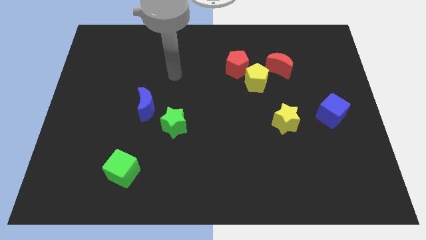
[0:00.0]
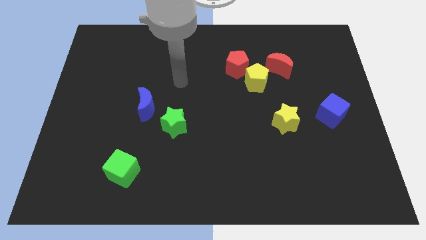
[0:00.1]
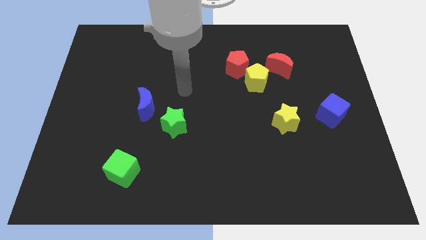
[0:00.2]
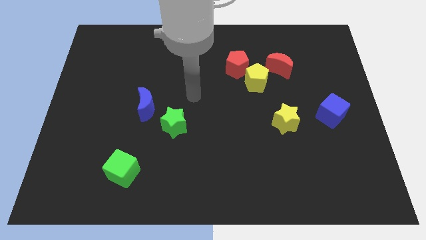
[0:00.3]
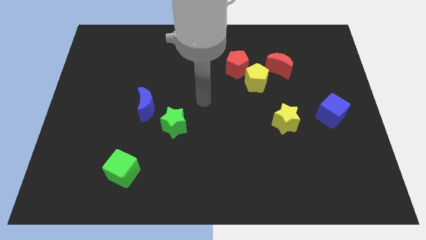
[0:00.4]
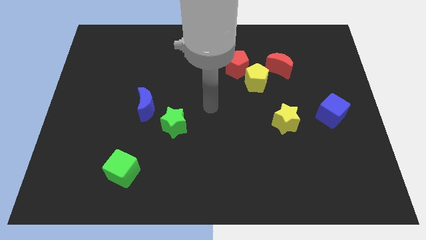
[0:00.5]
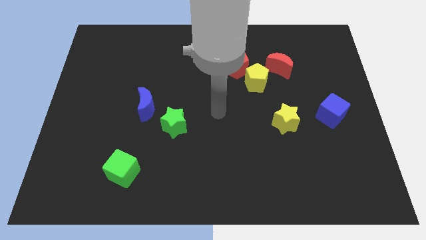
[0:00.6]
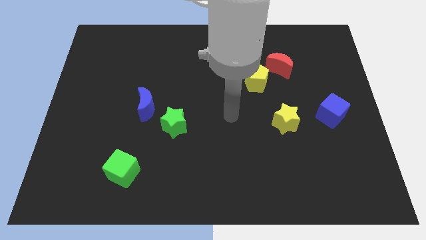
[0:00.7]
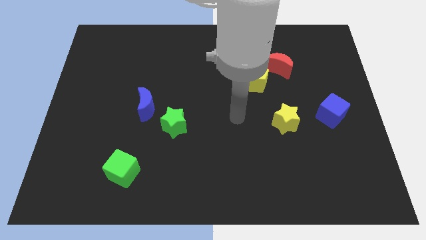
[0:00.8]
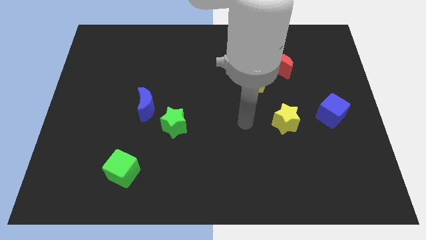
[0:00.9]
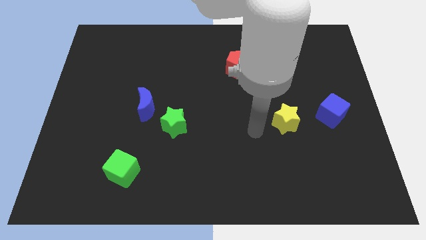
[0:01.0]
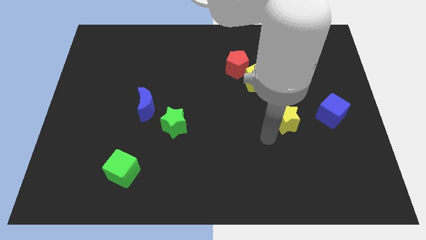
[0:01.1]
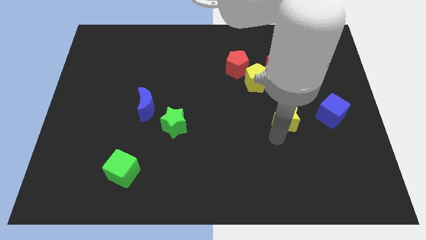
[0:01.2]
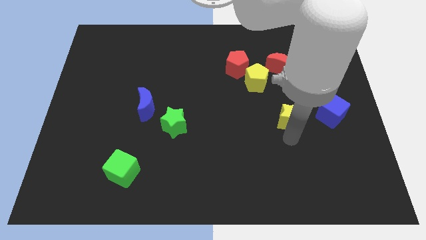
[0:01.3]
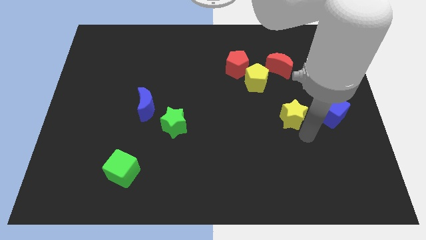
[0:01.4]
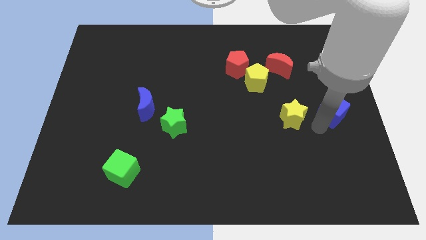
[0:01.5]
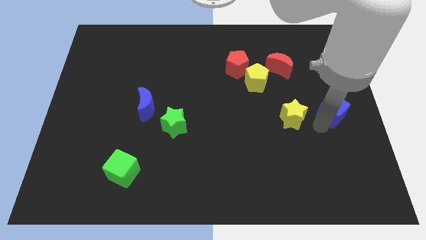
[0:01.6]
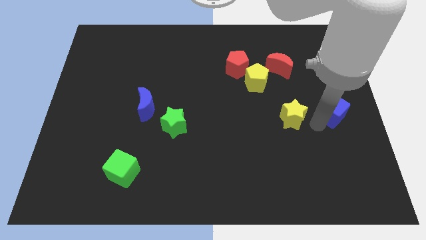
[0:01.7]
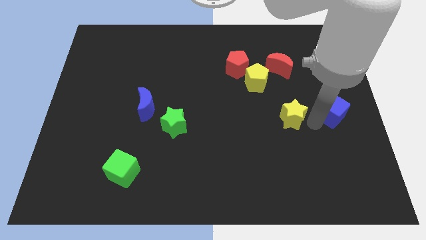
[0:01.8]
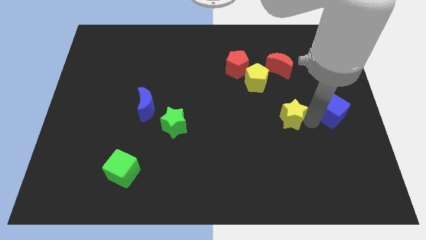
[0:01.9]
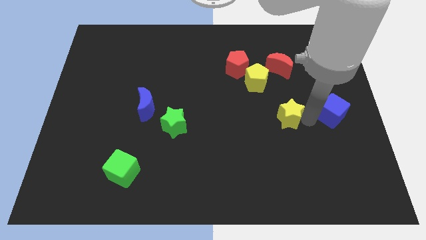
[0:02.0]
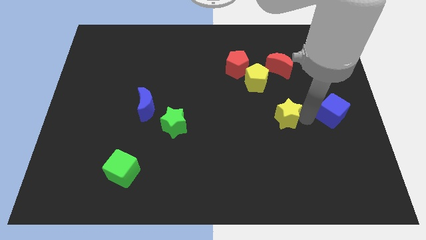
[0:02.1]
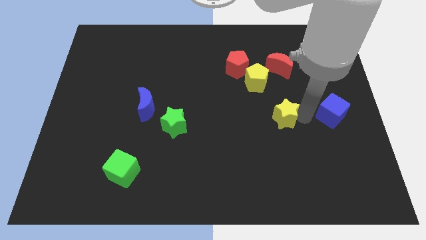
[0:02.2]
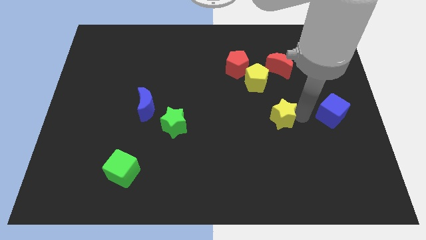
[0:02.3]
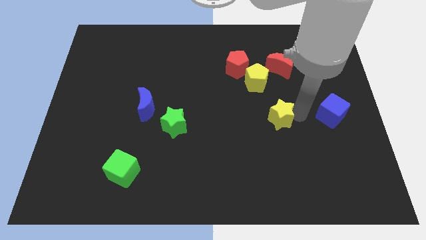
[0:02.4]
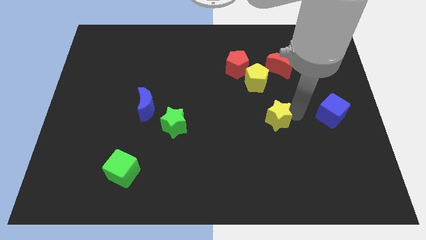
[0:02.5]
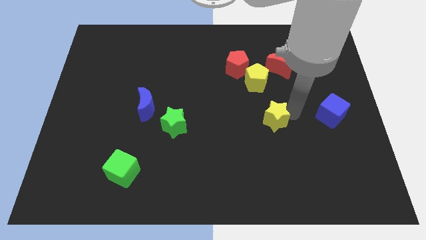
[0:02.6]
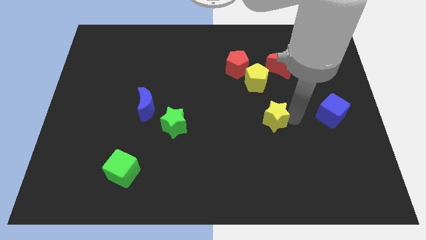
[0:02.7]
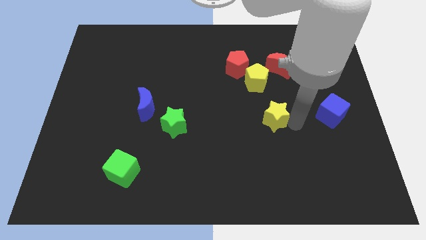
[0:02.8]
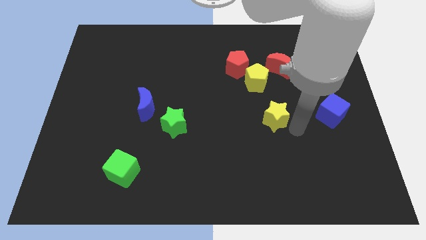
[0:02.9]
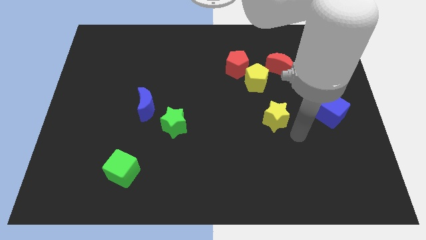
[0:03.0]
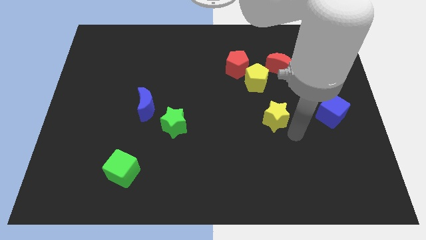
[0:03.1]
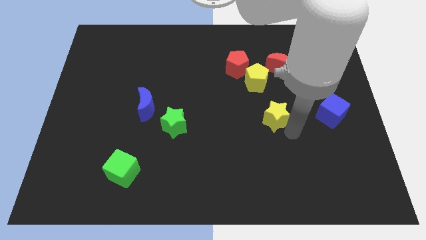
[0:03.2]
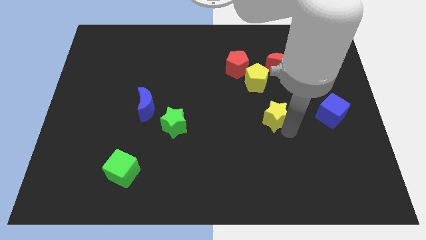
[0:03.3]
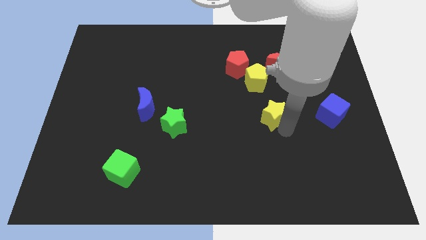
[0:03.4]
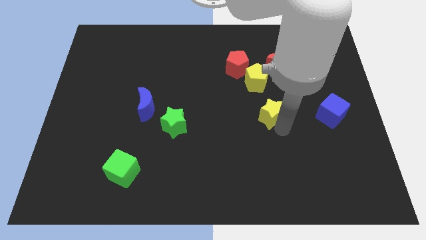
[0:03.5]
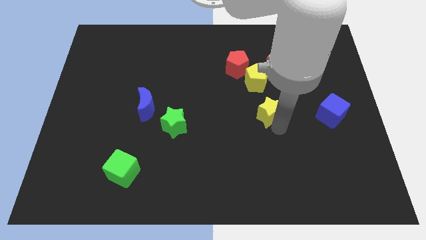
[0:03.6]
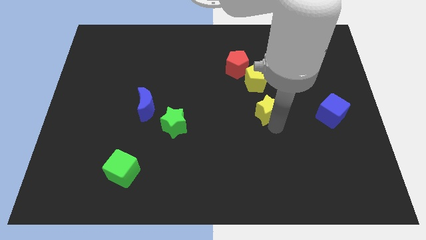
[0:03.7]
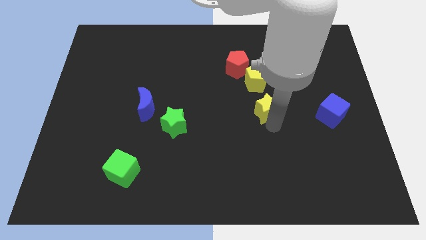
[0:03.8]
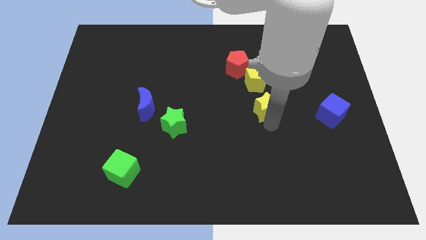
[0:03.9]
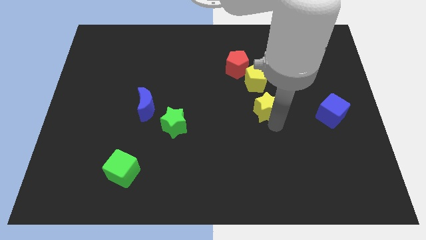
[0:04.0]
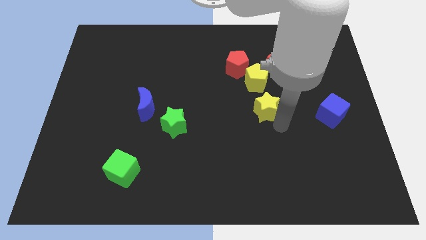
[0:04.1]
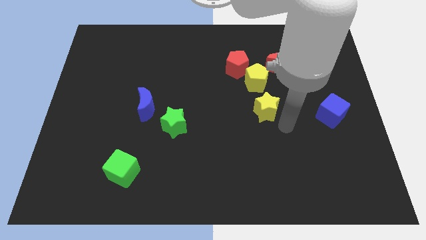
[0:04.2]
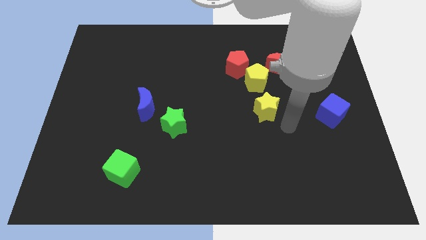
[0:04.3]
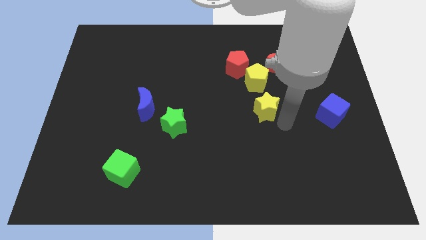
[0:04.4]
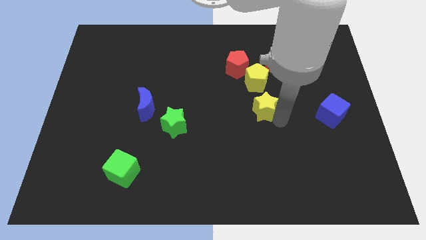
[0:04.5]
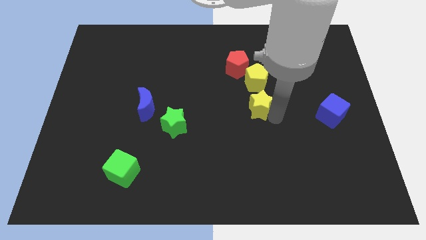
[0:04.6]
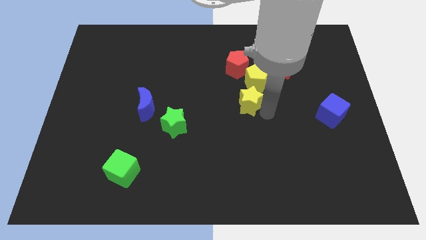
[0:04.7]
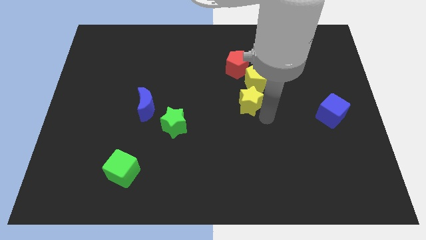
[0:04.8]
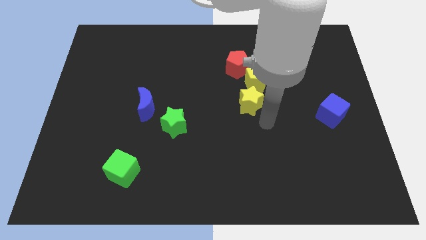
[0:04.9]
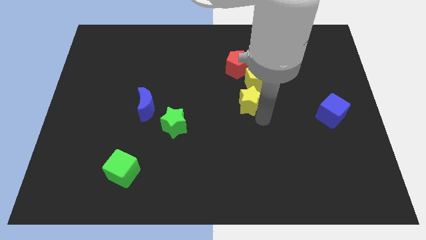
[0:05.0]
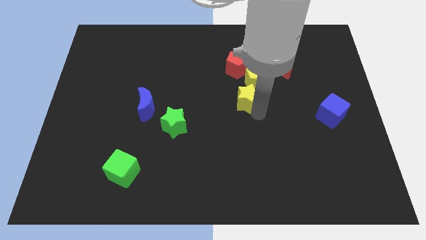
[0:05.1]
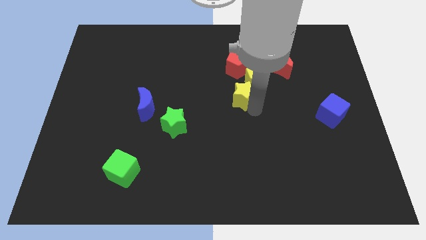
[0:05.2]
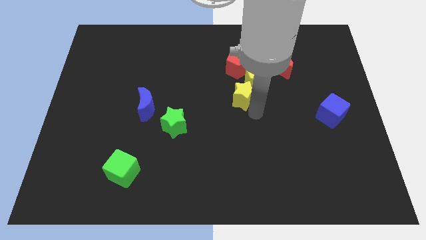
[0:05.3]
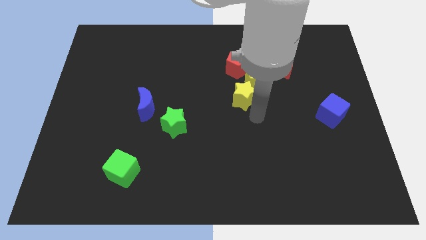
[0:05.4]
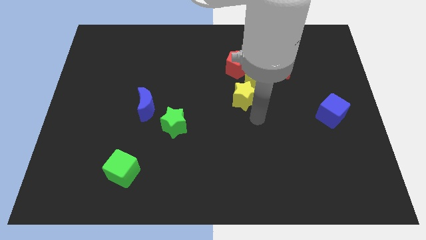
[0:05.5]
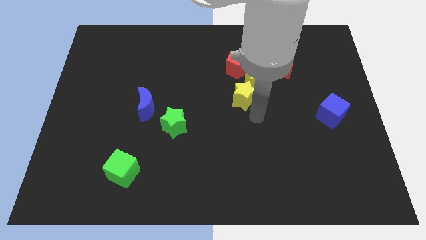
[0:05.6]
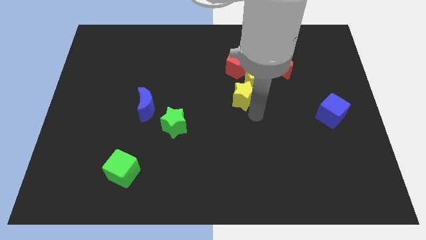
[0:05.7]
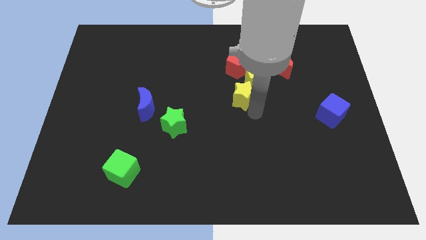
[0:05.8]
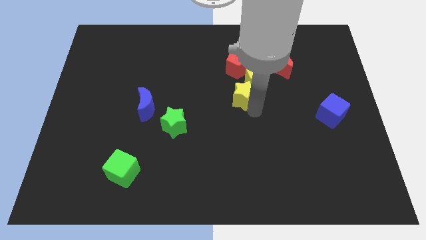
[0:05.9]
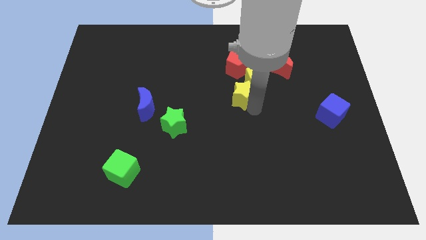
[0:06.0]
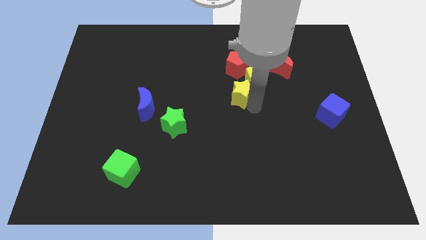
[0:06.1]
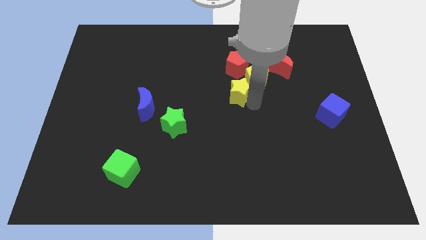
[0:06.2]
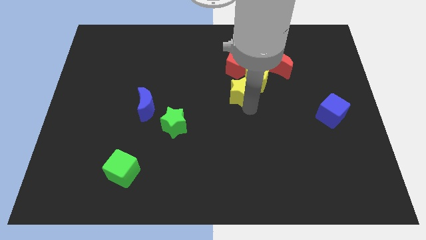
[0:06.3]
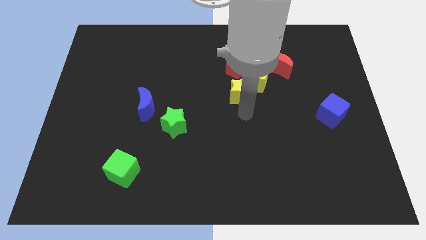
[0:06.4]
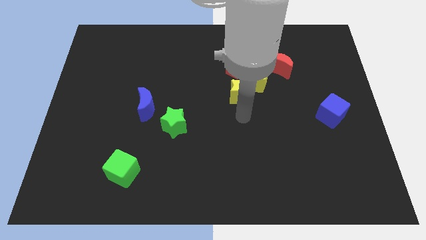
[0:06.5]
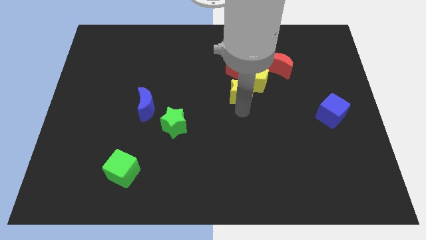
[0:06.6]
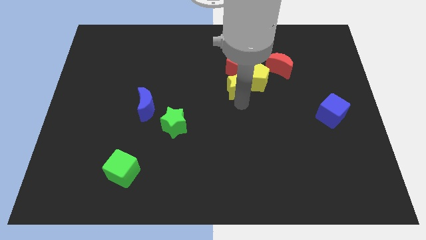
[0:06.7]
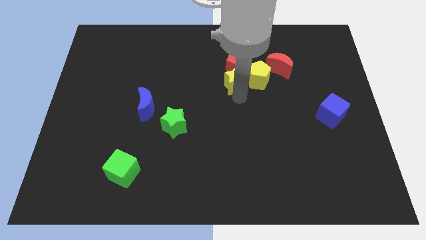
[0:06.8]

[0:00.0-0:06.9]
slide the yellow star next to the red pentagon

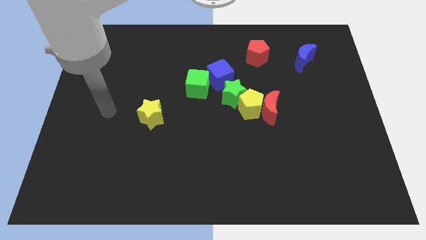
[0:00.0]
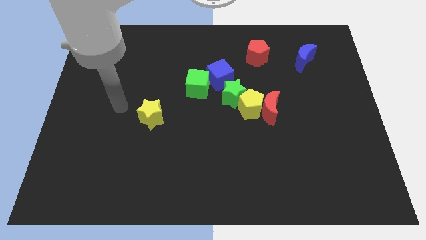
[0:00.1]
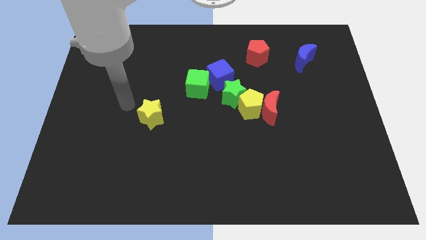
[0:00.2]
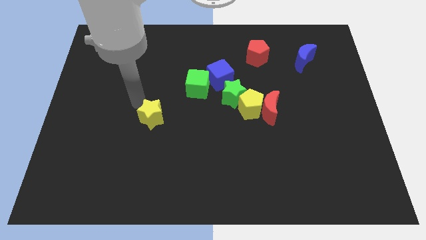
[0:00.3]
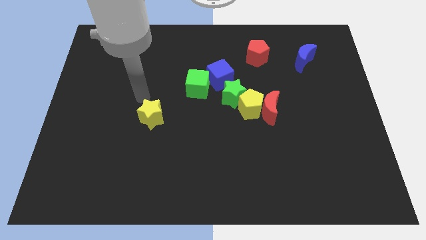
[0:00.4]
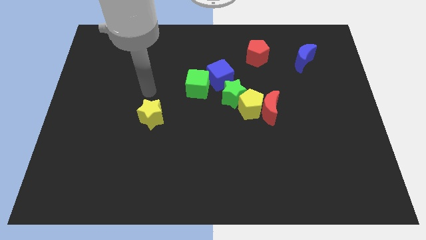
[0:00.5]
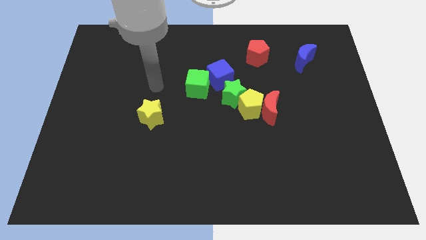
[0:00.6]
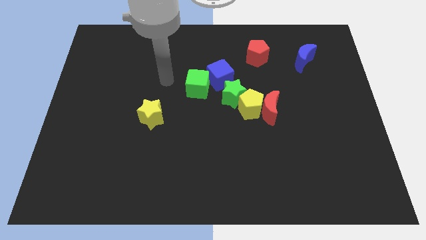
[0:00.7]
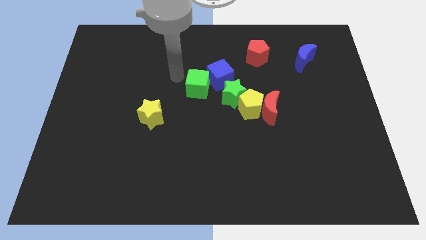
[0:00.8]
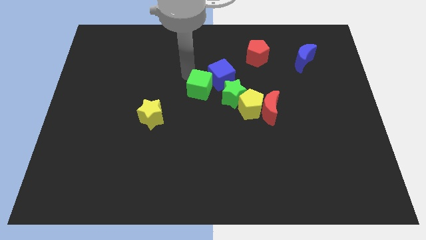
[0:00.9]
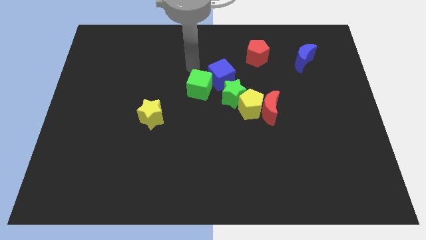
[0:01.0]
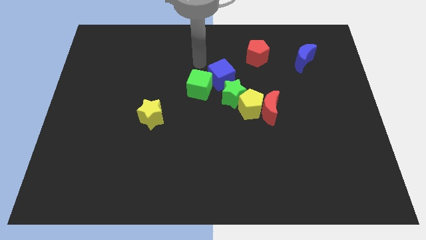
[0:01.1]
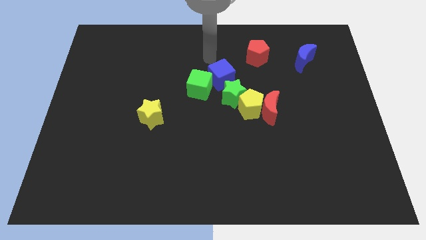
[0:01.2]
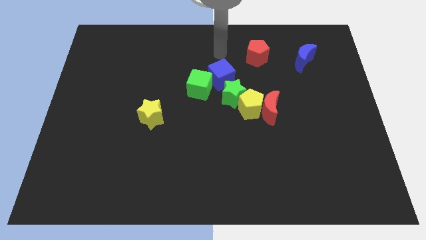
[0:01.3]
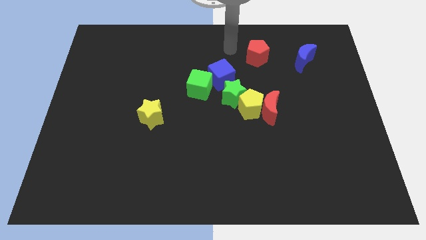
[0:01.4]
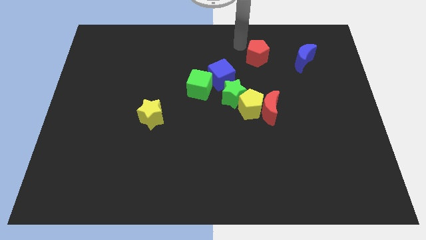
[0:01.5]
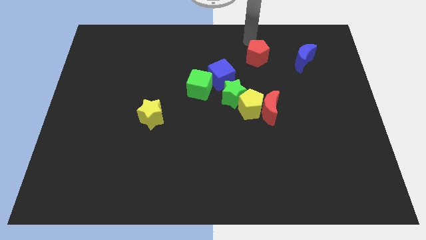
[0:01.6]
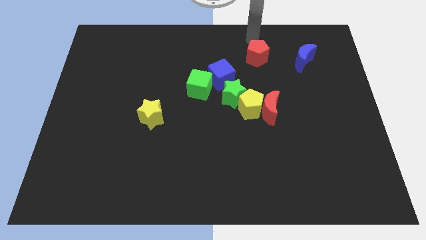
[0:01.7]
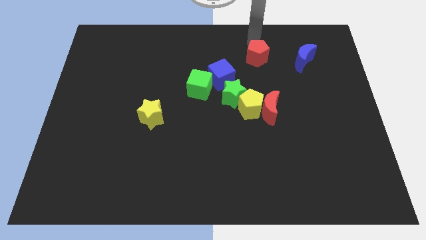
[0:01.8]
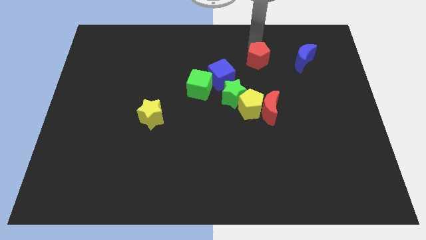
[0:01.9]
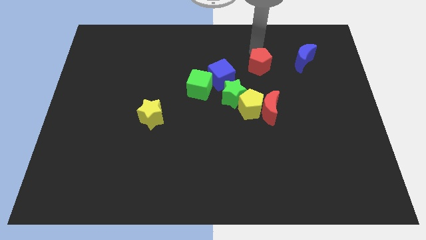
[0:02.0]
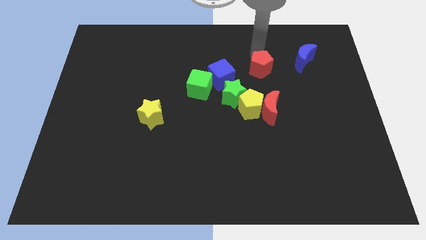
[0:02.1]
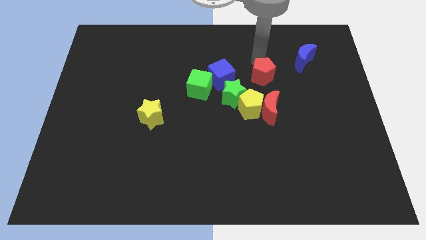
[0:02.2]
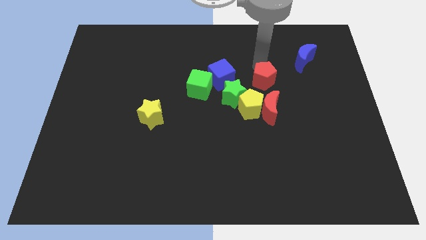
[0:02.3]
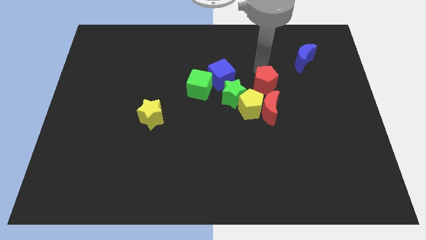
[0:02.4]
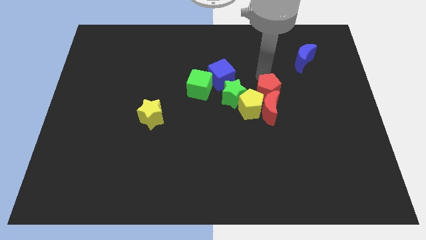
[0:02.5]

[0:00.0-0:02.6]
push the red pentagon next to the red moon
